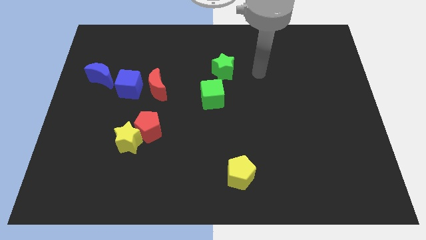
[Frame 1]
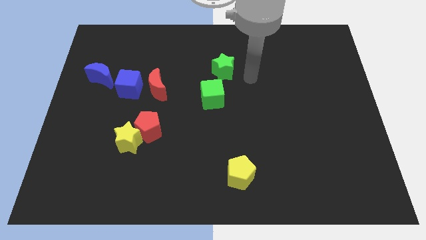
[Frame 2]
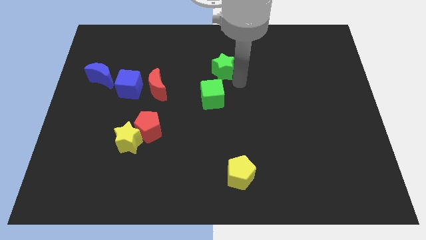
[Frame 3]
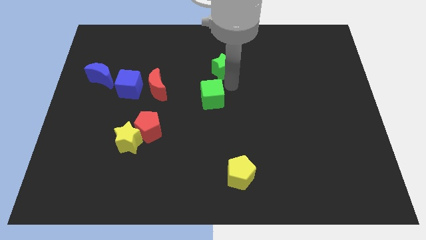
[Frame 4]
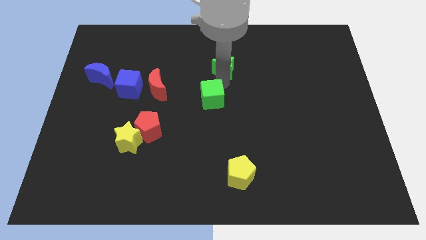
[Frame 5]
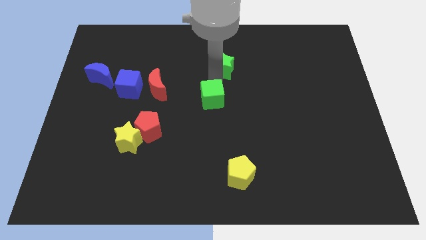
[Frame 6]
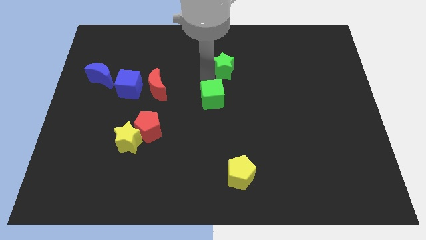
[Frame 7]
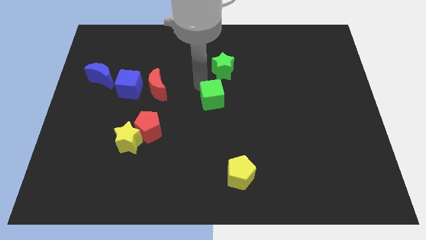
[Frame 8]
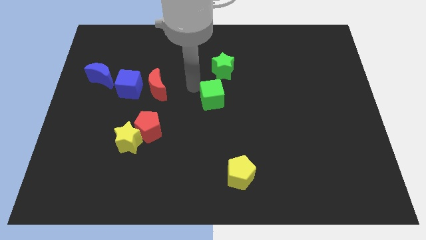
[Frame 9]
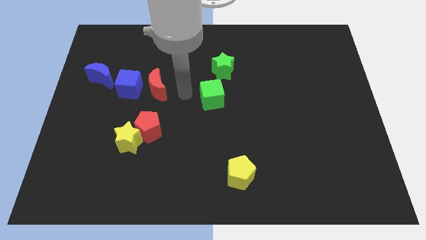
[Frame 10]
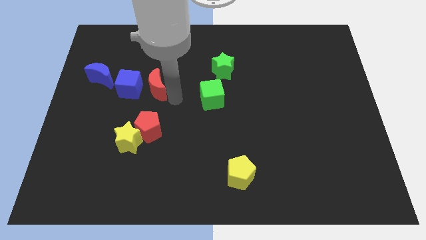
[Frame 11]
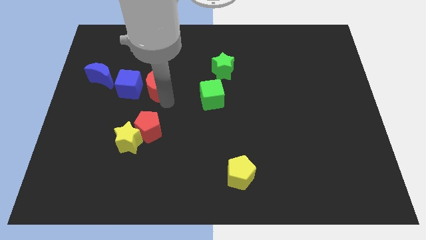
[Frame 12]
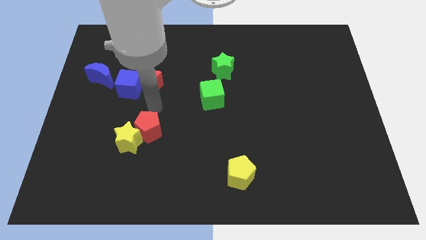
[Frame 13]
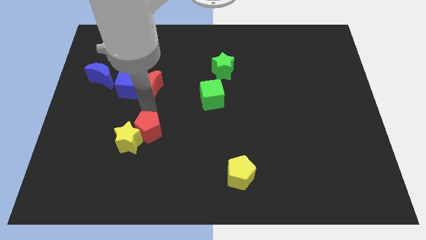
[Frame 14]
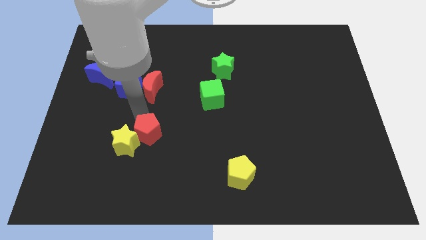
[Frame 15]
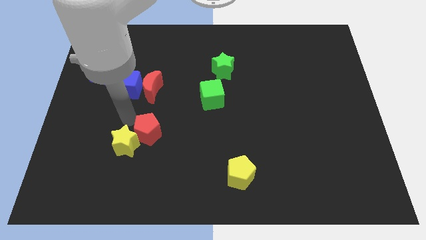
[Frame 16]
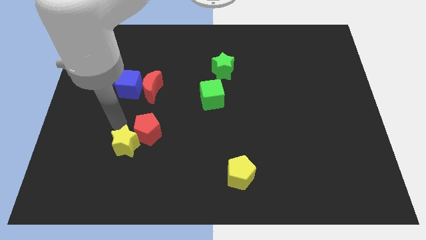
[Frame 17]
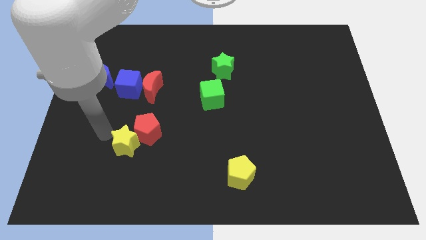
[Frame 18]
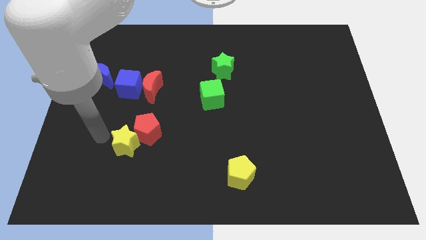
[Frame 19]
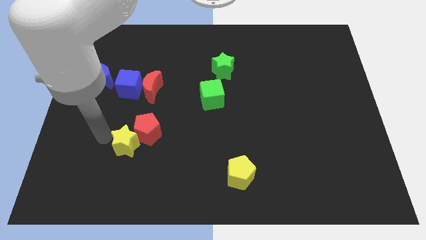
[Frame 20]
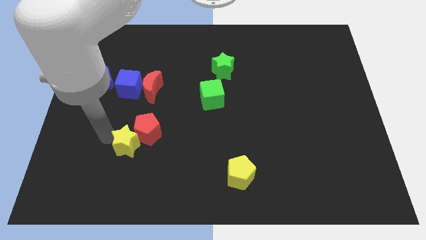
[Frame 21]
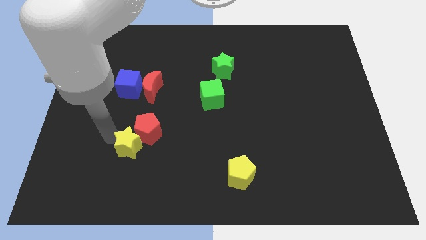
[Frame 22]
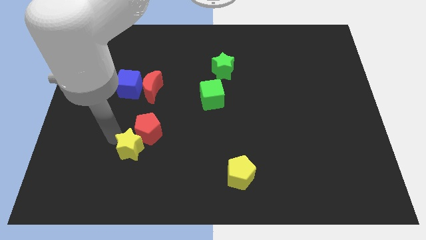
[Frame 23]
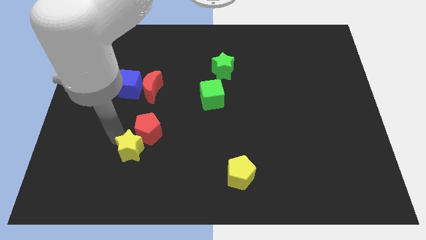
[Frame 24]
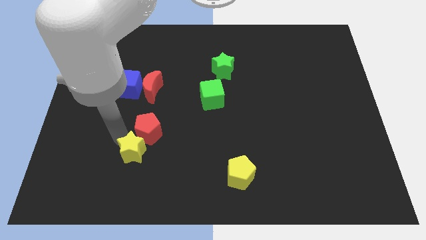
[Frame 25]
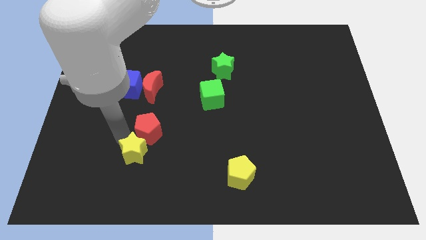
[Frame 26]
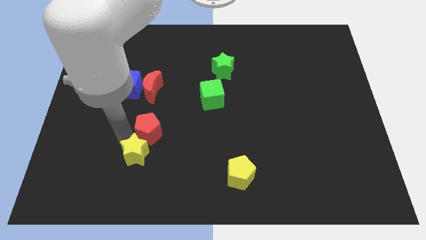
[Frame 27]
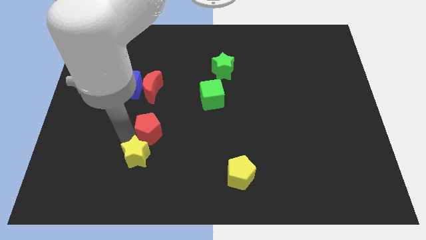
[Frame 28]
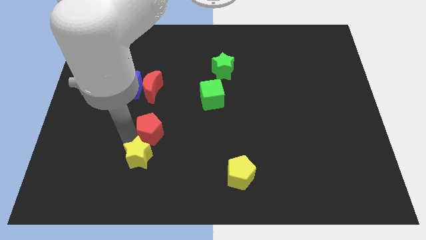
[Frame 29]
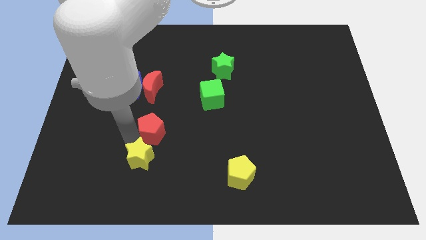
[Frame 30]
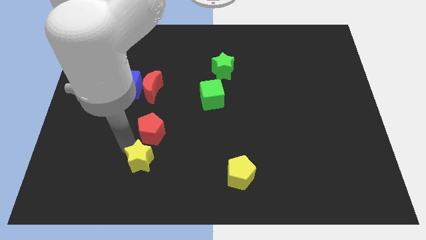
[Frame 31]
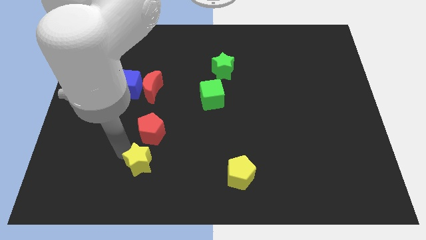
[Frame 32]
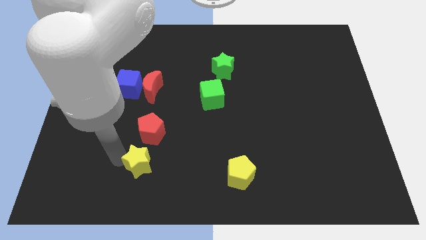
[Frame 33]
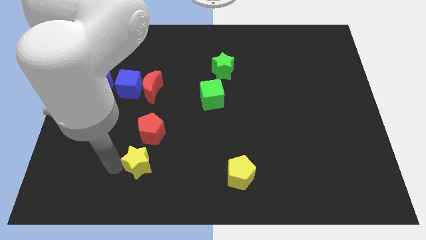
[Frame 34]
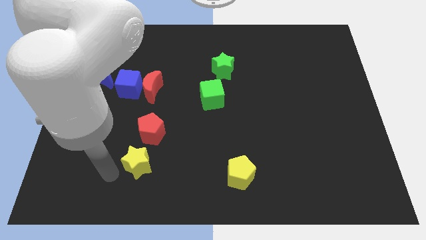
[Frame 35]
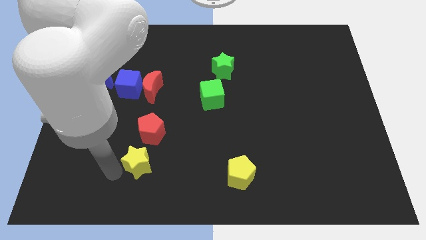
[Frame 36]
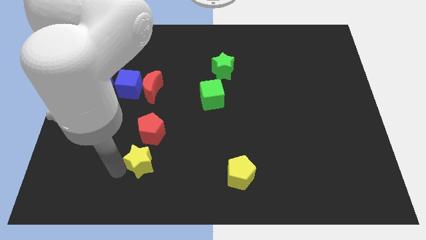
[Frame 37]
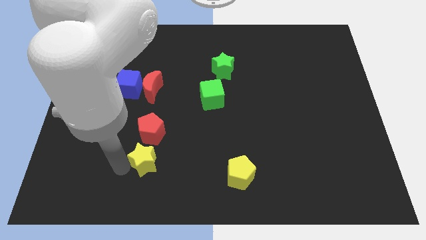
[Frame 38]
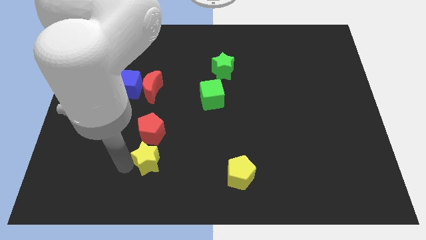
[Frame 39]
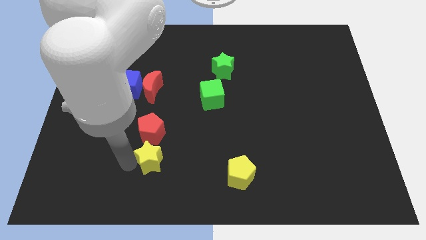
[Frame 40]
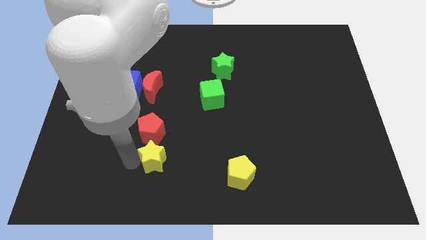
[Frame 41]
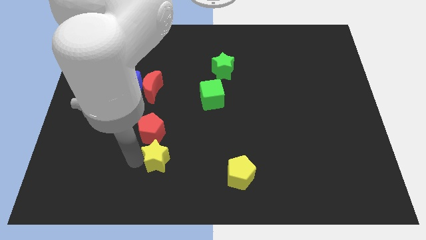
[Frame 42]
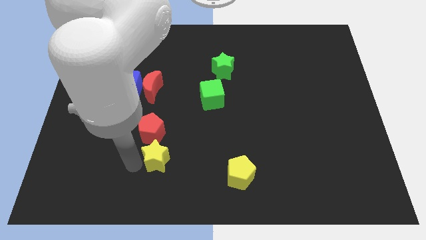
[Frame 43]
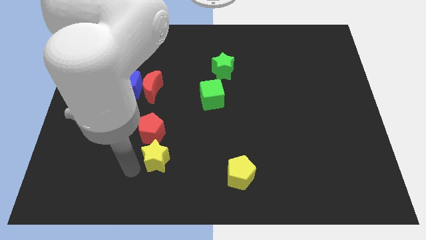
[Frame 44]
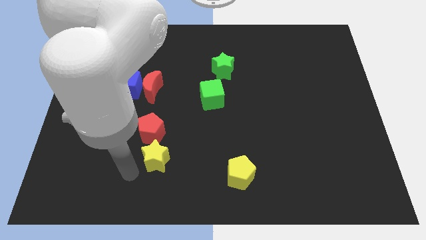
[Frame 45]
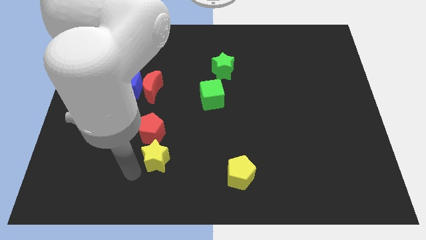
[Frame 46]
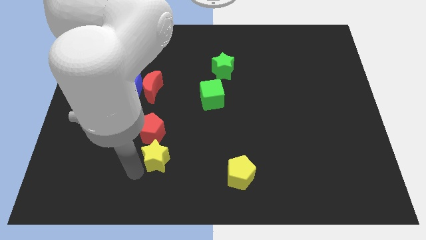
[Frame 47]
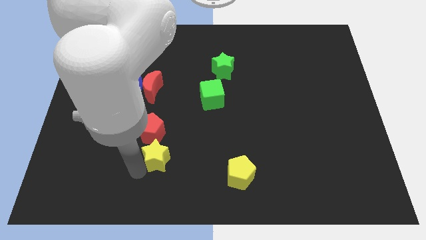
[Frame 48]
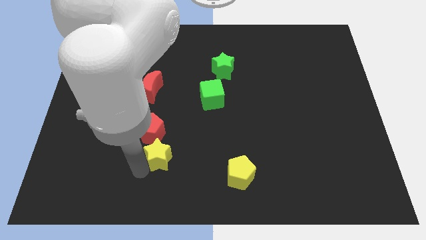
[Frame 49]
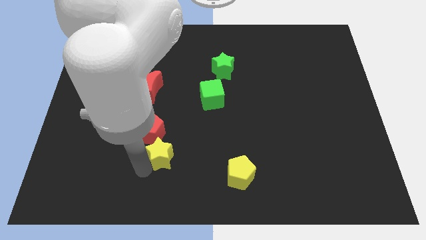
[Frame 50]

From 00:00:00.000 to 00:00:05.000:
push the yellow star a little right

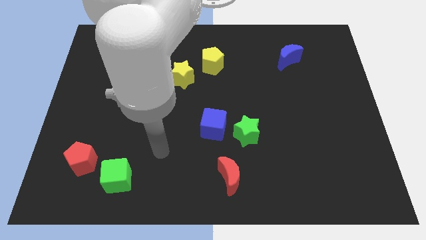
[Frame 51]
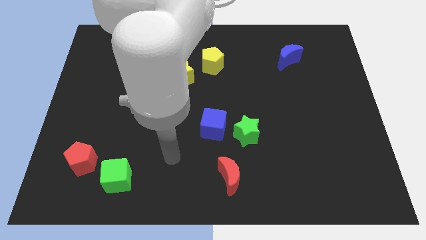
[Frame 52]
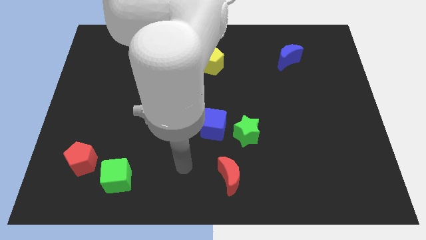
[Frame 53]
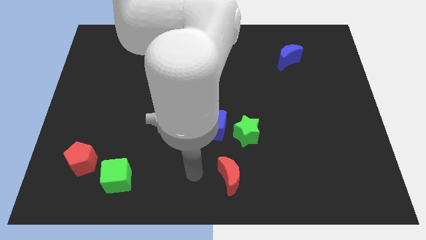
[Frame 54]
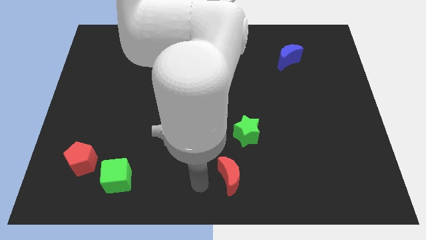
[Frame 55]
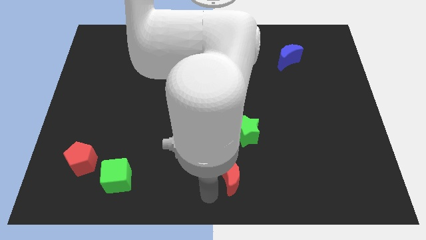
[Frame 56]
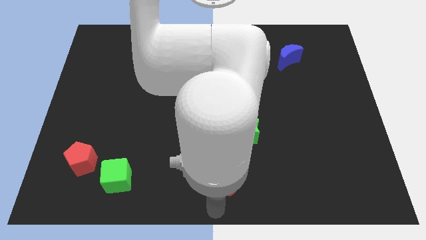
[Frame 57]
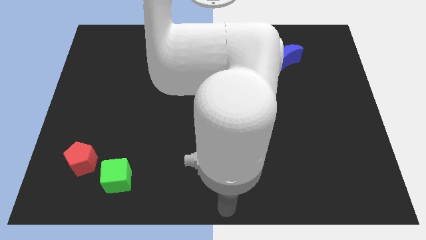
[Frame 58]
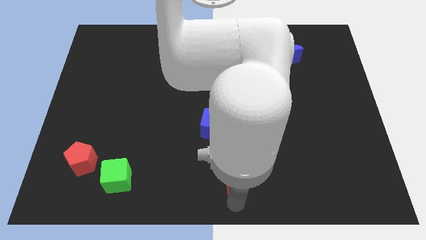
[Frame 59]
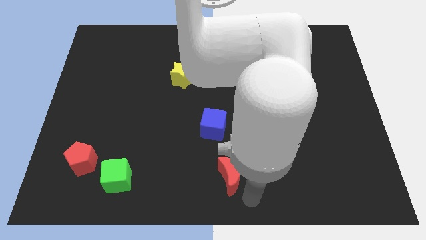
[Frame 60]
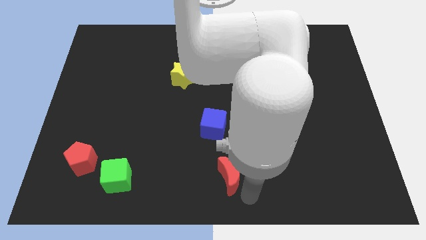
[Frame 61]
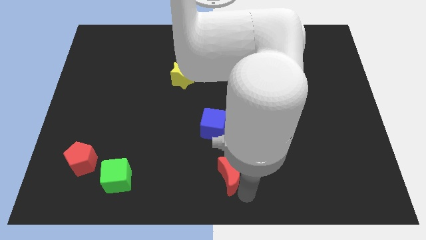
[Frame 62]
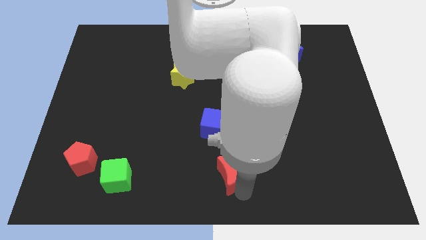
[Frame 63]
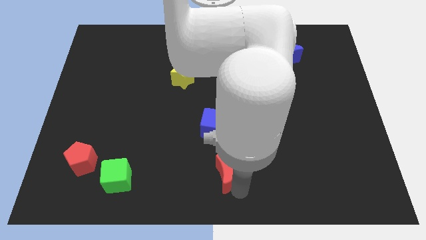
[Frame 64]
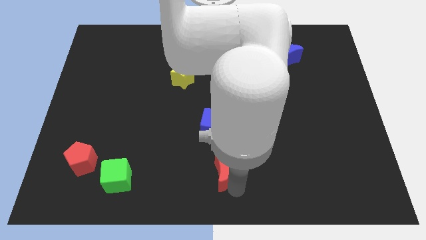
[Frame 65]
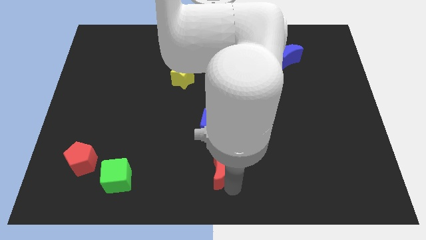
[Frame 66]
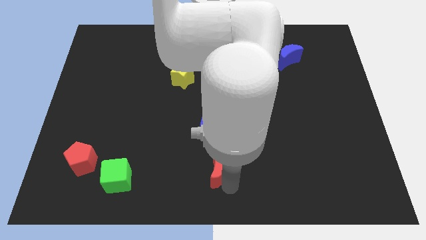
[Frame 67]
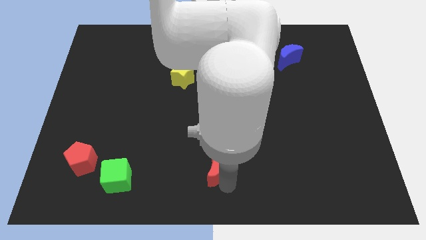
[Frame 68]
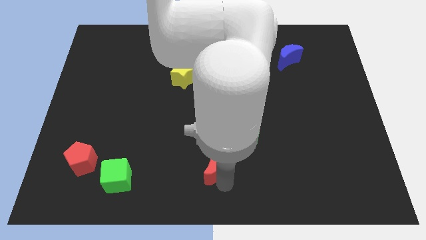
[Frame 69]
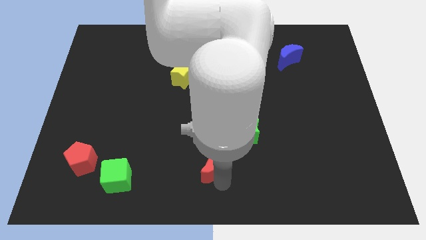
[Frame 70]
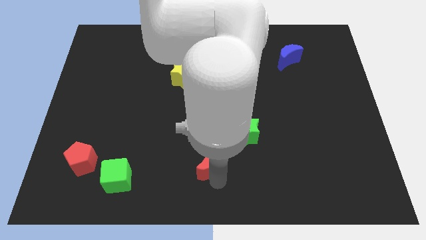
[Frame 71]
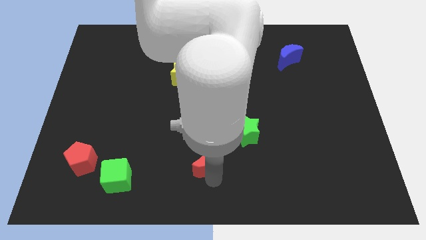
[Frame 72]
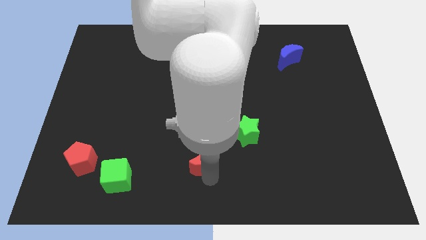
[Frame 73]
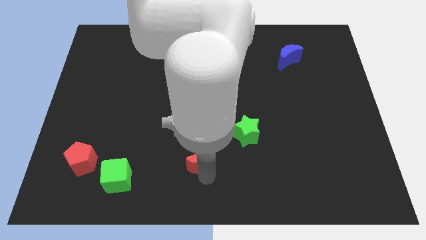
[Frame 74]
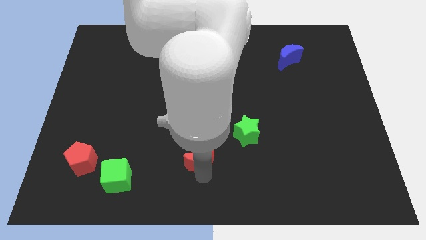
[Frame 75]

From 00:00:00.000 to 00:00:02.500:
slide the red moon upwards and then left somewhat

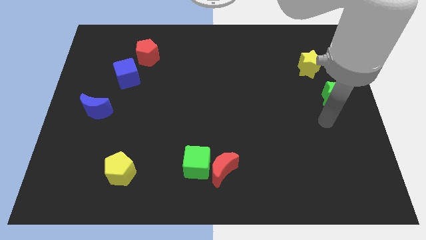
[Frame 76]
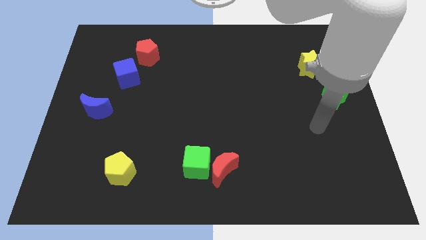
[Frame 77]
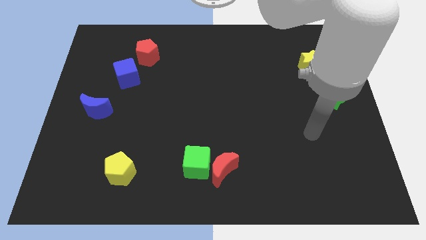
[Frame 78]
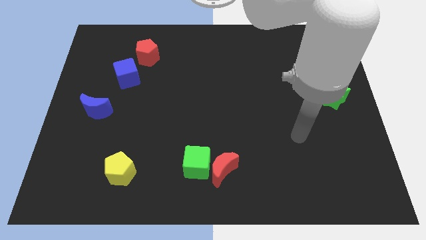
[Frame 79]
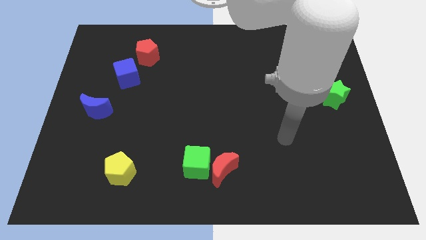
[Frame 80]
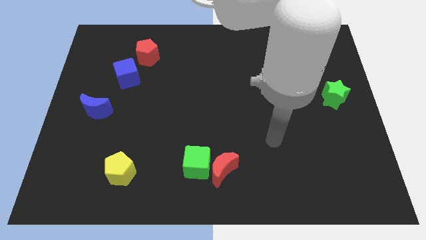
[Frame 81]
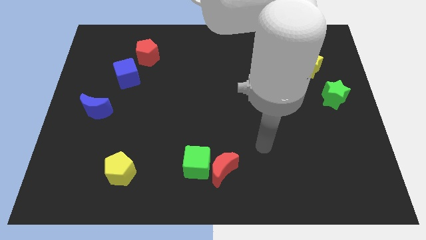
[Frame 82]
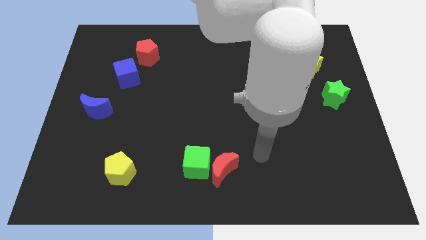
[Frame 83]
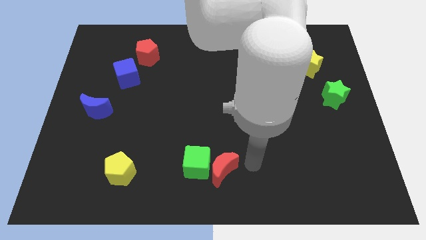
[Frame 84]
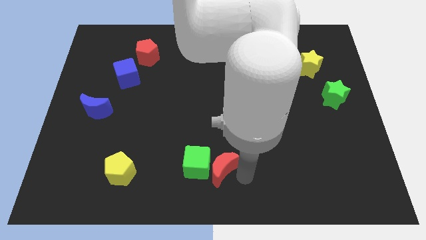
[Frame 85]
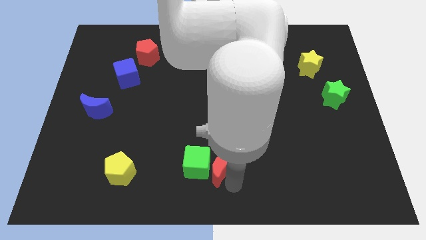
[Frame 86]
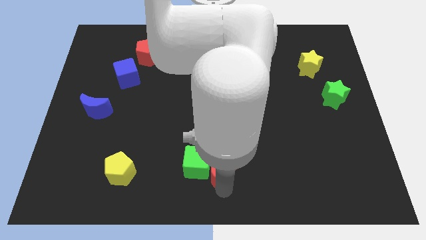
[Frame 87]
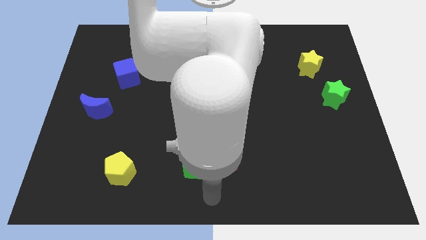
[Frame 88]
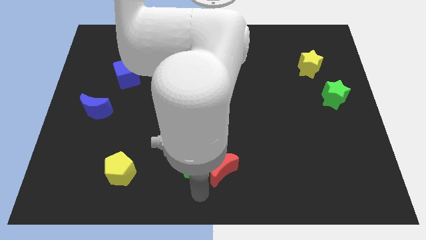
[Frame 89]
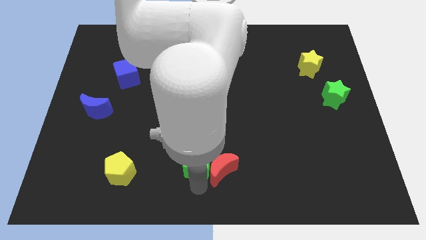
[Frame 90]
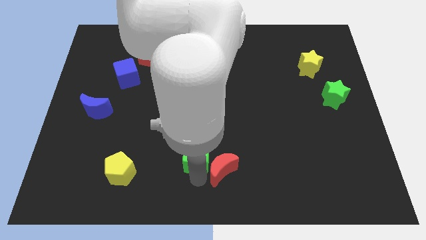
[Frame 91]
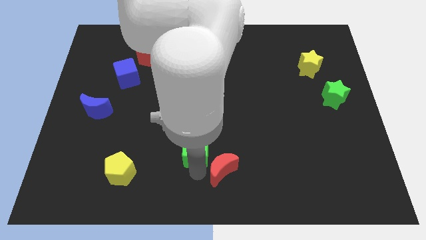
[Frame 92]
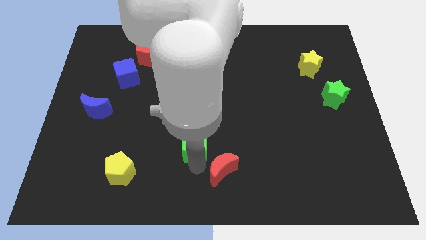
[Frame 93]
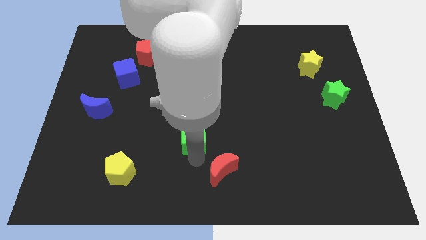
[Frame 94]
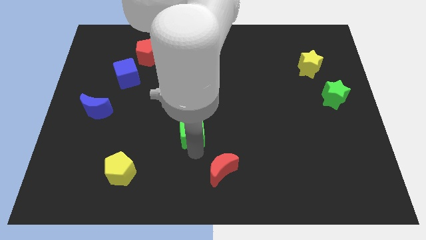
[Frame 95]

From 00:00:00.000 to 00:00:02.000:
slide the green cube up slightly
